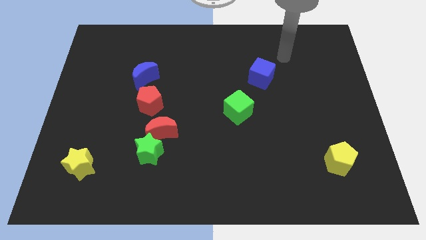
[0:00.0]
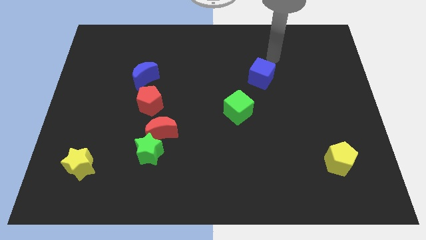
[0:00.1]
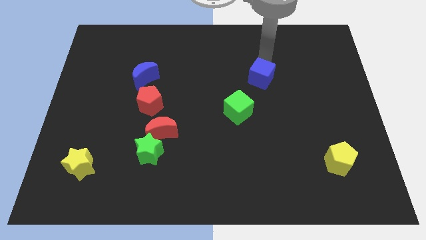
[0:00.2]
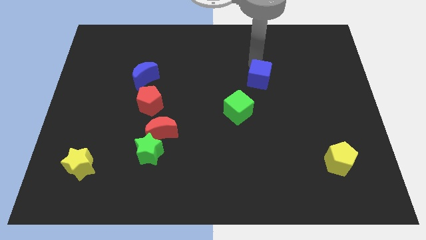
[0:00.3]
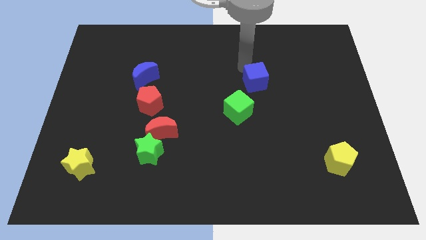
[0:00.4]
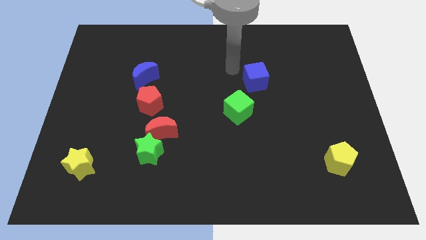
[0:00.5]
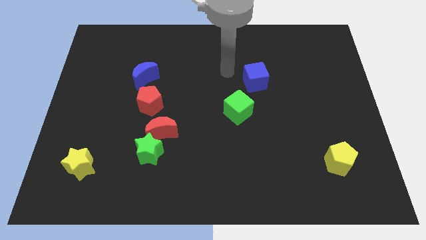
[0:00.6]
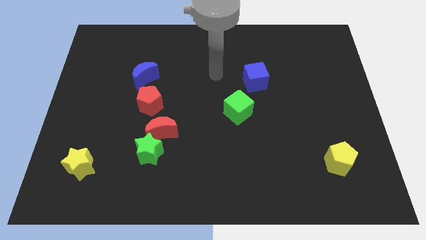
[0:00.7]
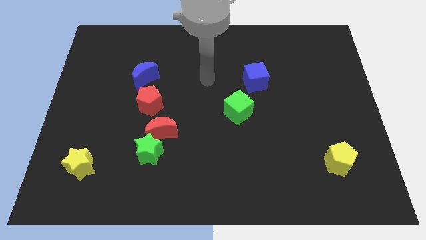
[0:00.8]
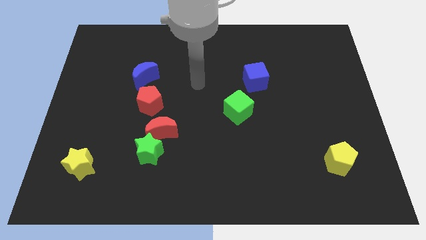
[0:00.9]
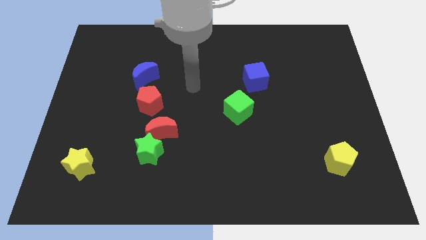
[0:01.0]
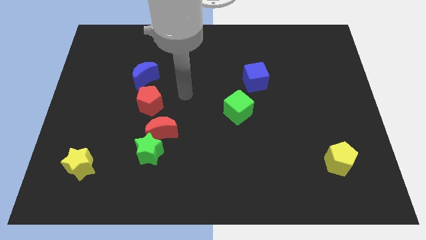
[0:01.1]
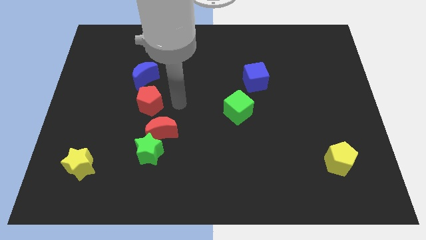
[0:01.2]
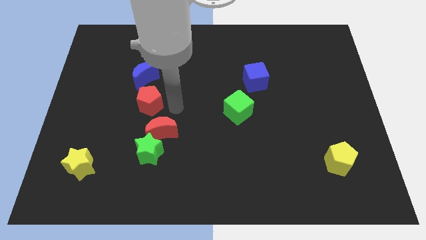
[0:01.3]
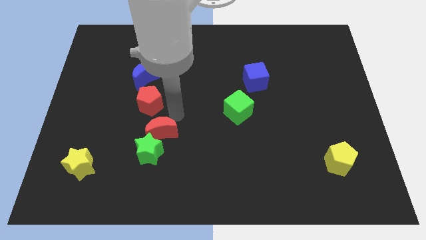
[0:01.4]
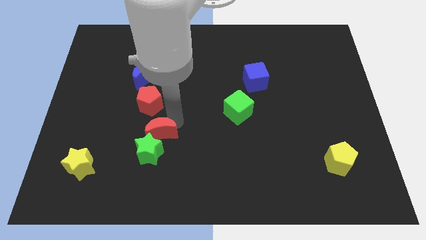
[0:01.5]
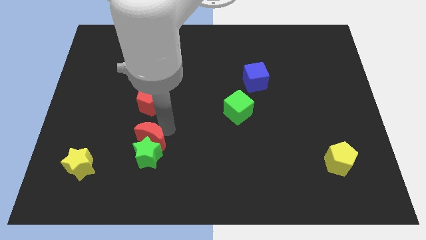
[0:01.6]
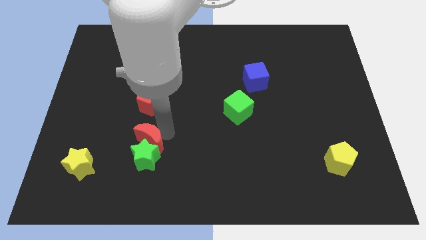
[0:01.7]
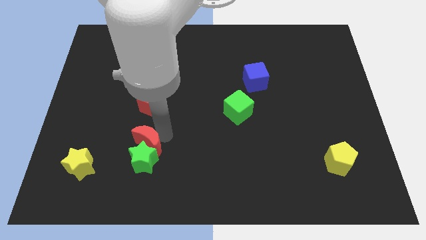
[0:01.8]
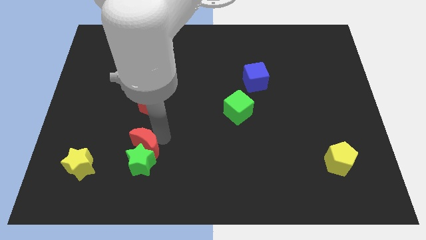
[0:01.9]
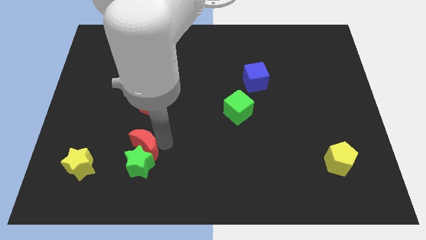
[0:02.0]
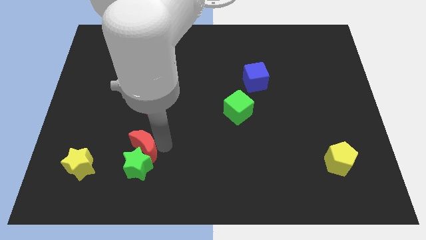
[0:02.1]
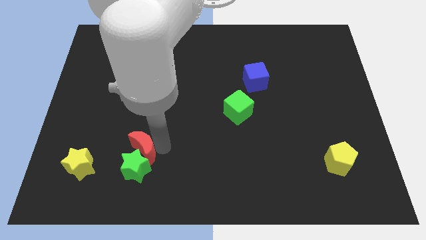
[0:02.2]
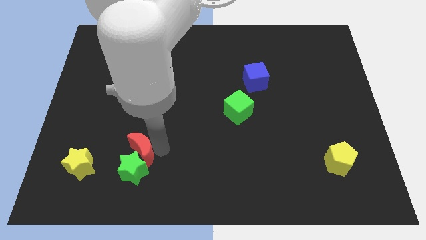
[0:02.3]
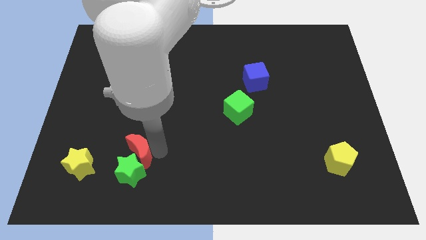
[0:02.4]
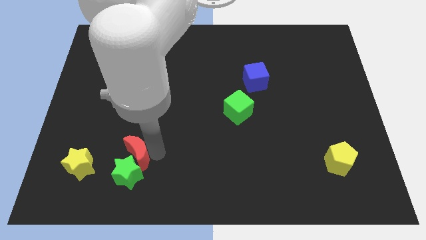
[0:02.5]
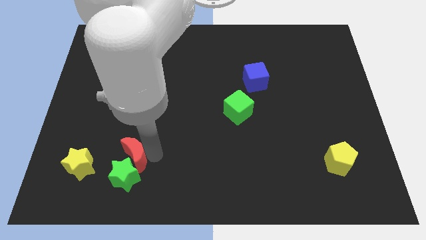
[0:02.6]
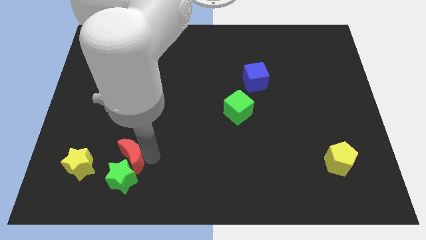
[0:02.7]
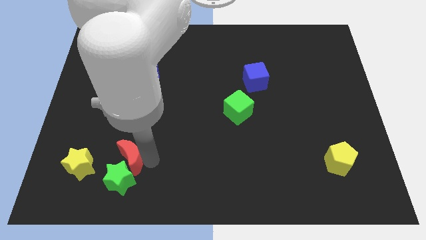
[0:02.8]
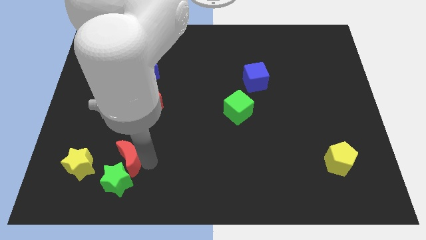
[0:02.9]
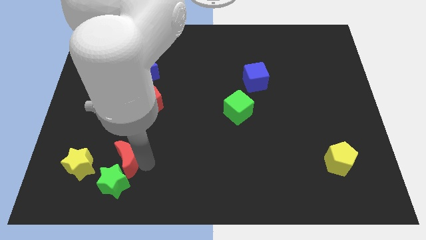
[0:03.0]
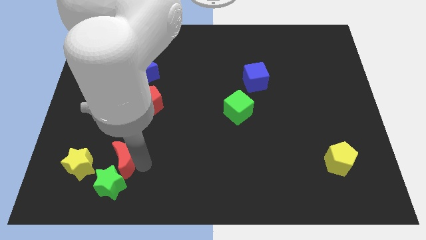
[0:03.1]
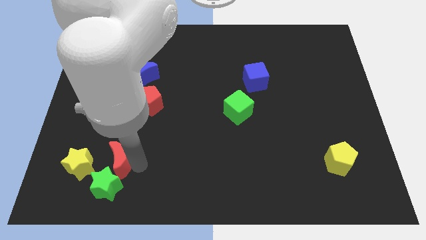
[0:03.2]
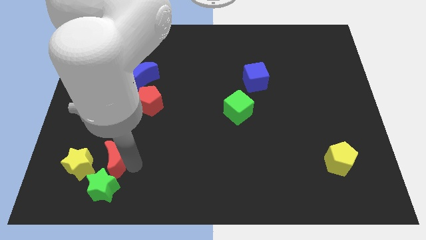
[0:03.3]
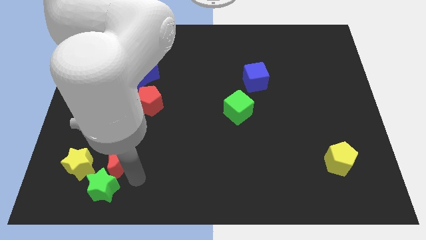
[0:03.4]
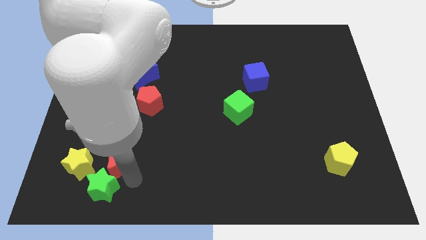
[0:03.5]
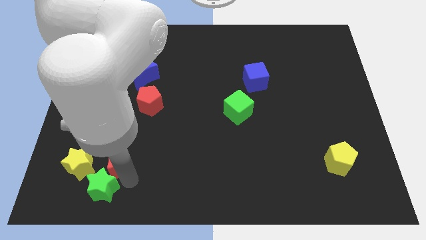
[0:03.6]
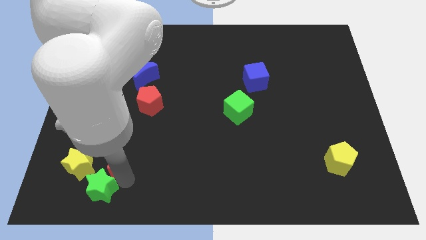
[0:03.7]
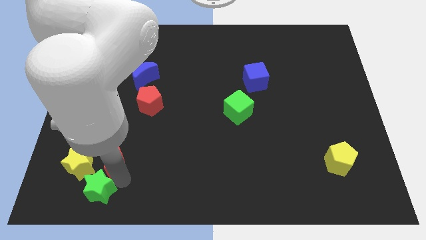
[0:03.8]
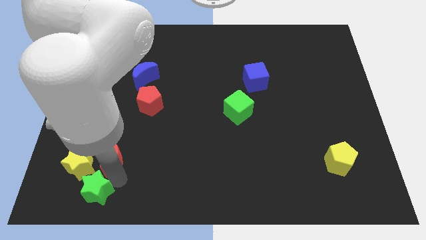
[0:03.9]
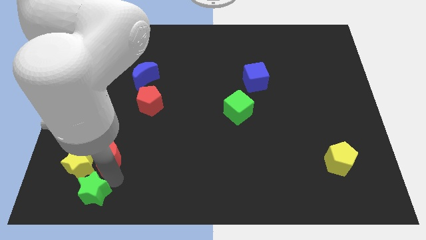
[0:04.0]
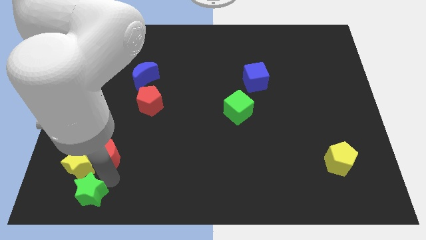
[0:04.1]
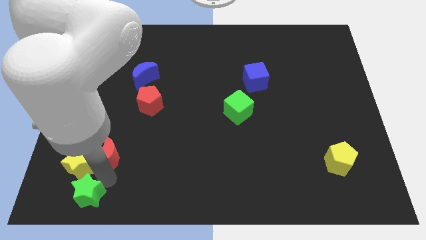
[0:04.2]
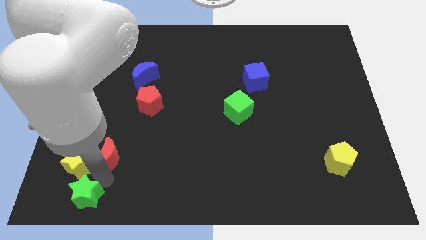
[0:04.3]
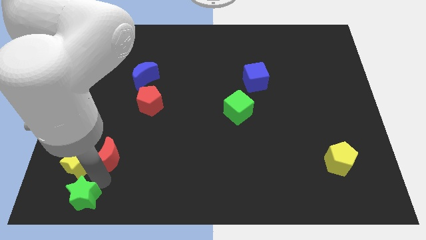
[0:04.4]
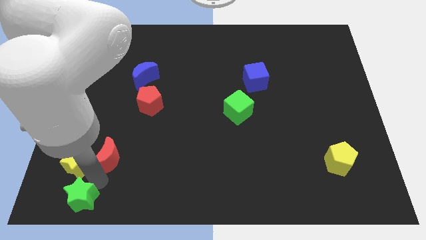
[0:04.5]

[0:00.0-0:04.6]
put the green star to the bottom left

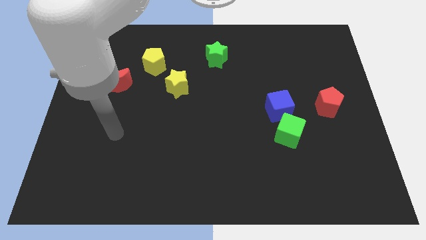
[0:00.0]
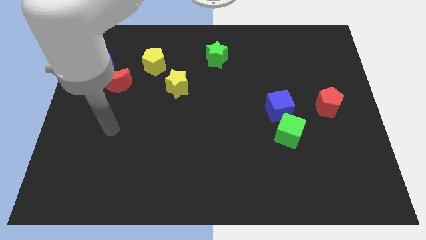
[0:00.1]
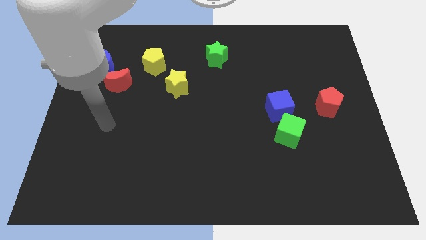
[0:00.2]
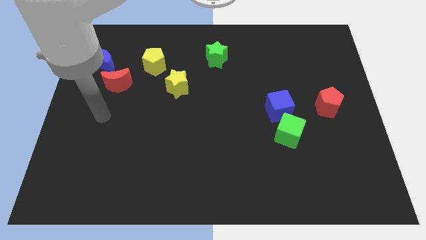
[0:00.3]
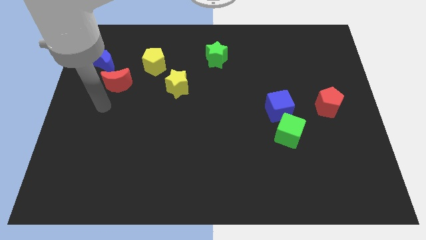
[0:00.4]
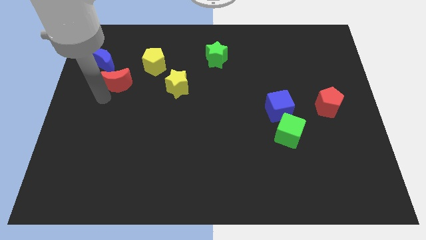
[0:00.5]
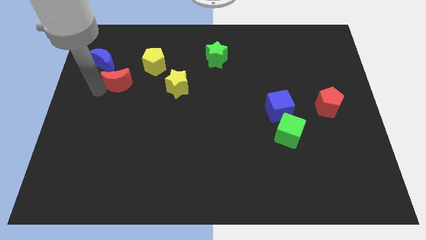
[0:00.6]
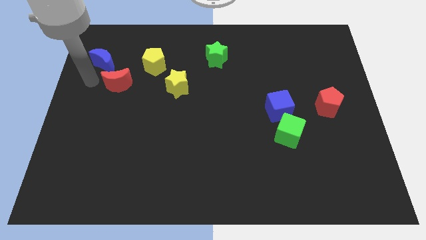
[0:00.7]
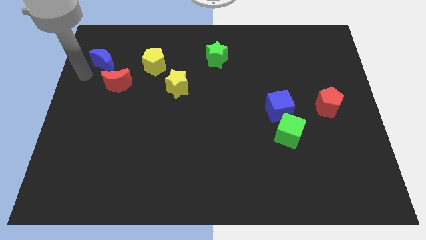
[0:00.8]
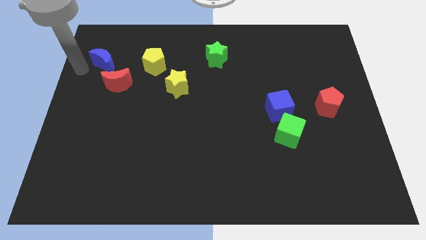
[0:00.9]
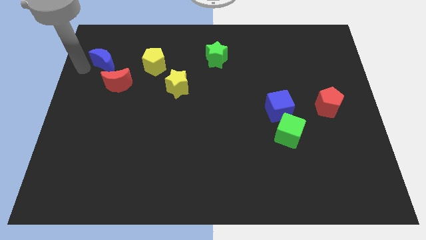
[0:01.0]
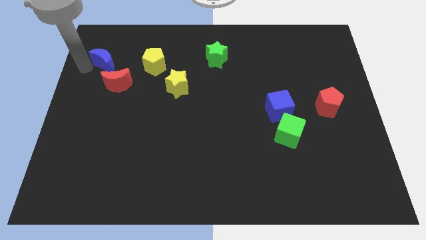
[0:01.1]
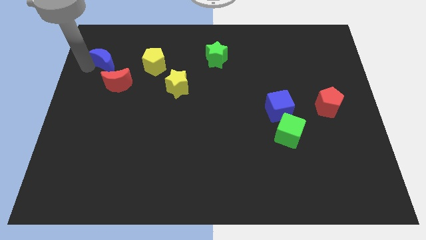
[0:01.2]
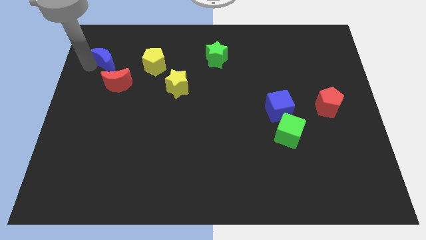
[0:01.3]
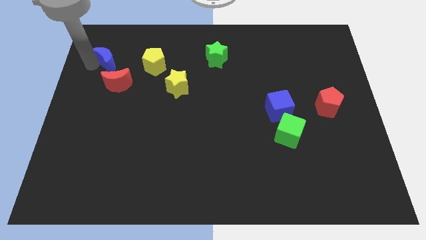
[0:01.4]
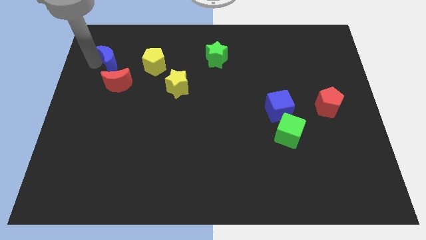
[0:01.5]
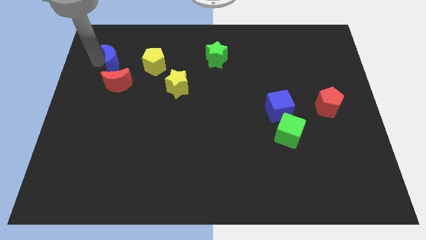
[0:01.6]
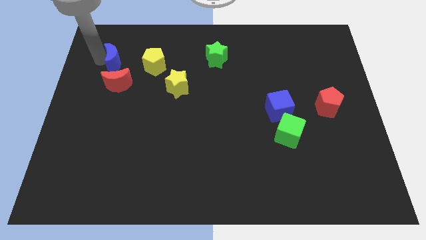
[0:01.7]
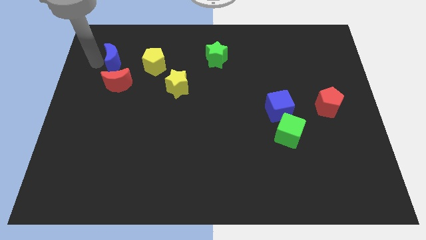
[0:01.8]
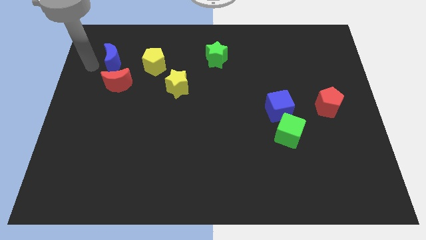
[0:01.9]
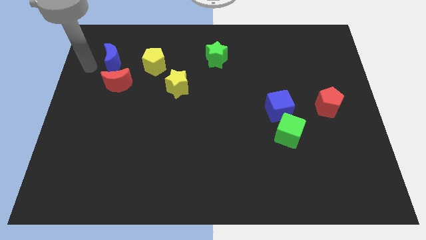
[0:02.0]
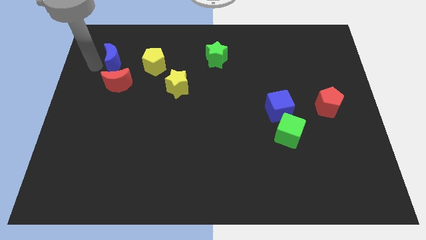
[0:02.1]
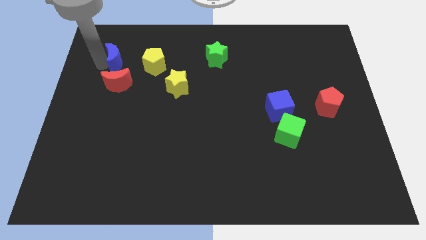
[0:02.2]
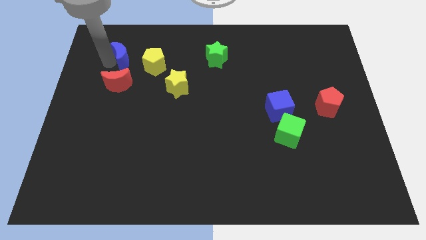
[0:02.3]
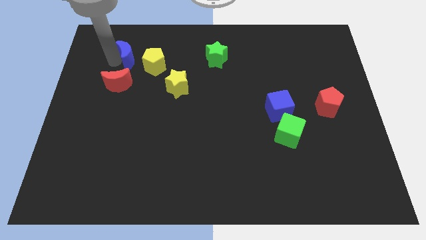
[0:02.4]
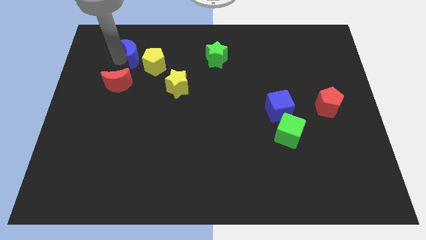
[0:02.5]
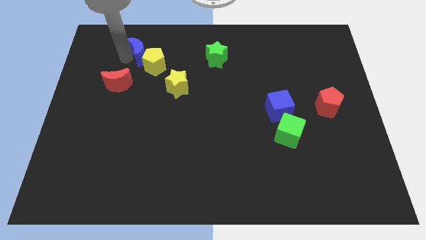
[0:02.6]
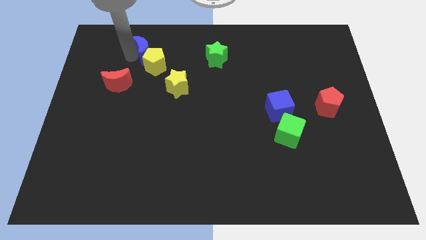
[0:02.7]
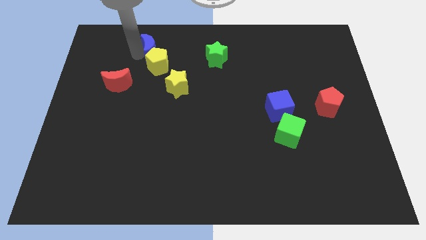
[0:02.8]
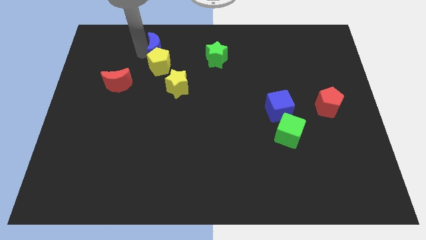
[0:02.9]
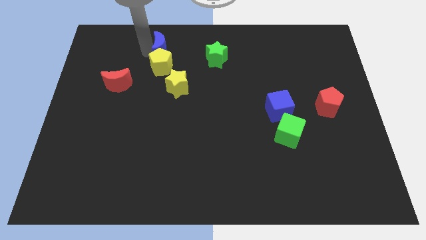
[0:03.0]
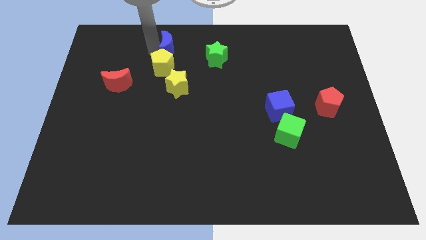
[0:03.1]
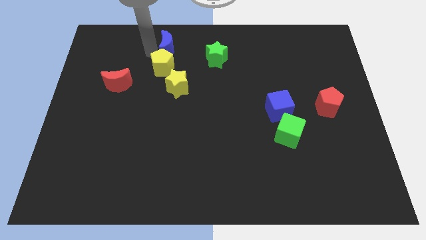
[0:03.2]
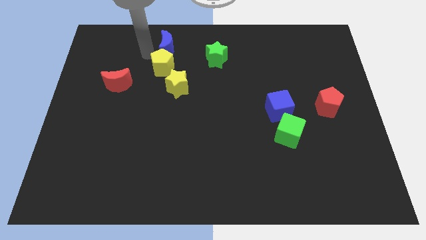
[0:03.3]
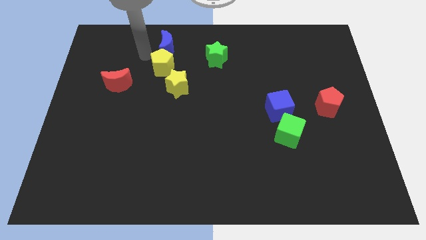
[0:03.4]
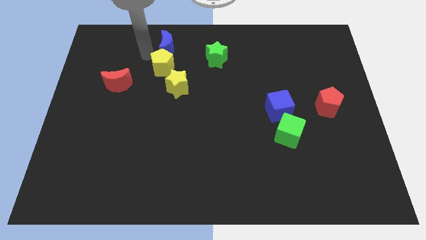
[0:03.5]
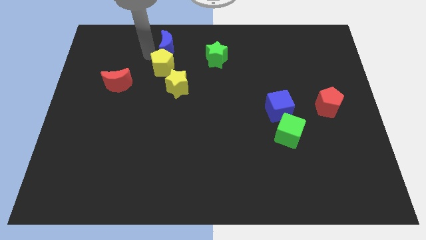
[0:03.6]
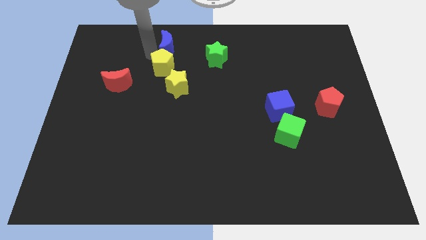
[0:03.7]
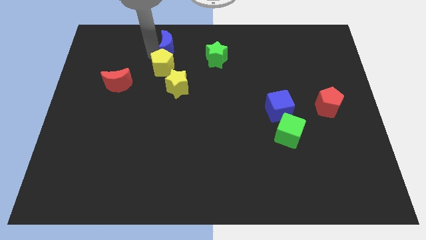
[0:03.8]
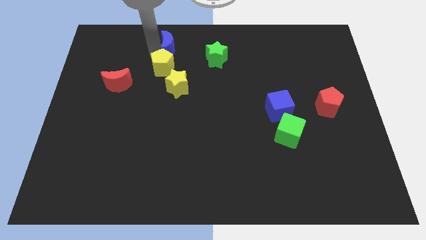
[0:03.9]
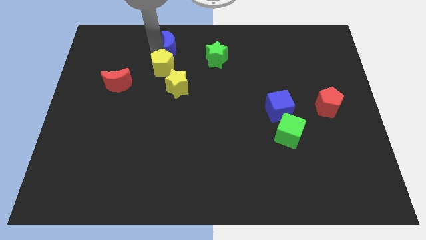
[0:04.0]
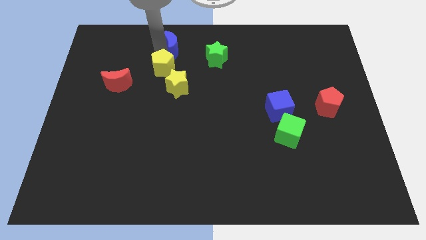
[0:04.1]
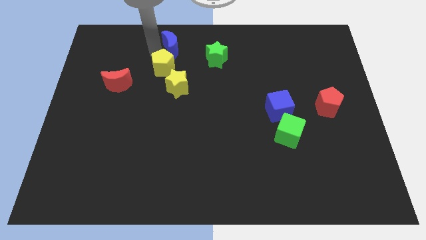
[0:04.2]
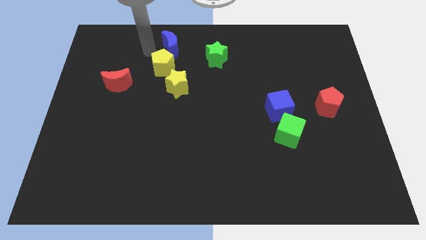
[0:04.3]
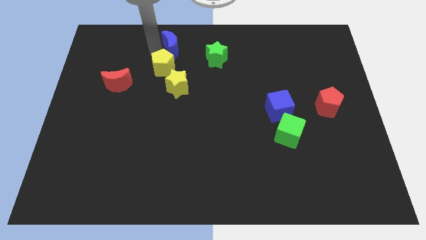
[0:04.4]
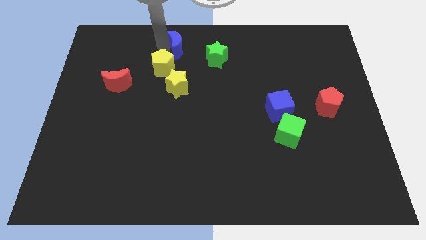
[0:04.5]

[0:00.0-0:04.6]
push the blue moon to the towards your base
